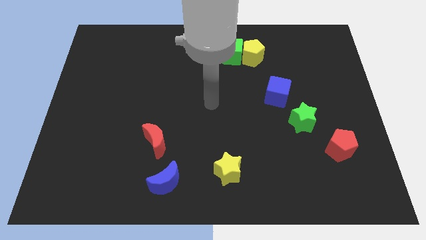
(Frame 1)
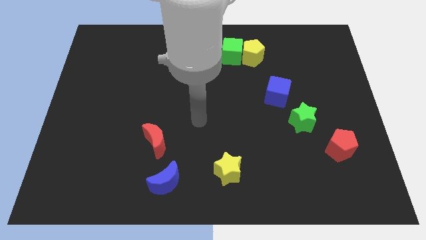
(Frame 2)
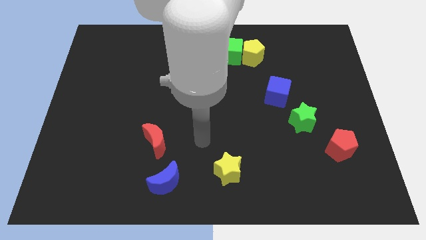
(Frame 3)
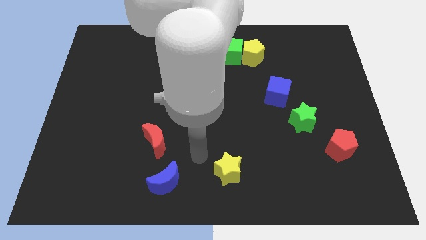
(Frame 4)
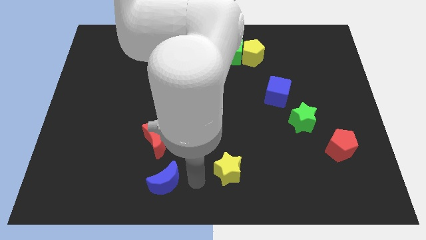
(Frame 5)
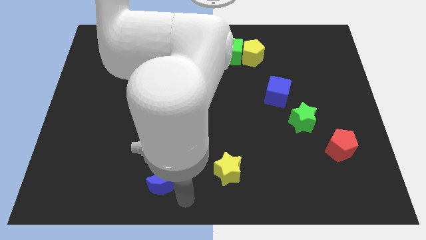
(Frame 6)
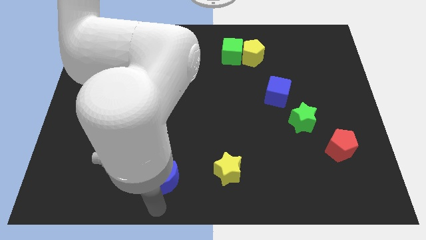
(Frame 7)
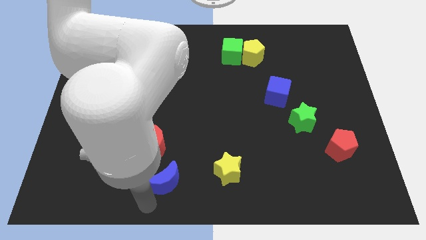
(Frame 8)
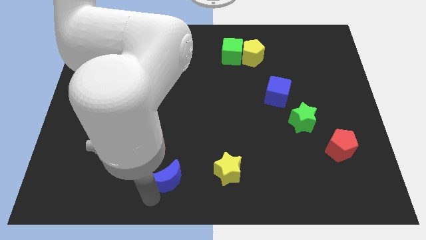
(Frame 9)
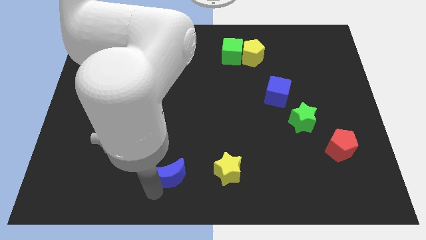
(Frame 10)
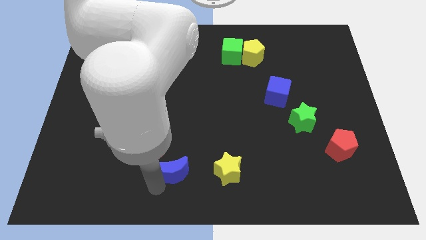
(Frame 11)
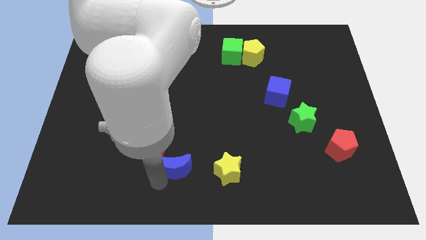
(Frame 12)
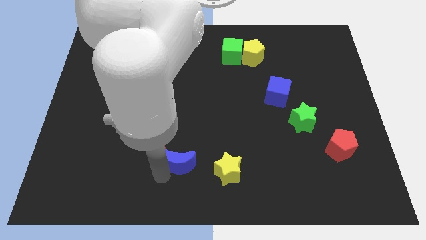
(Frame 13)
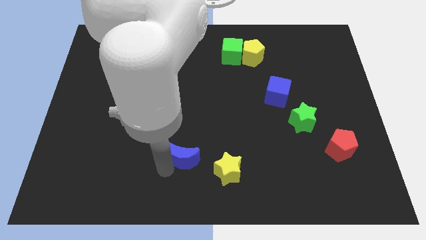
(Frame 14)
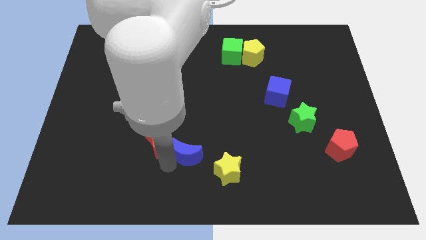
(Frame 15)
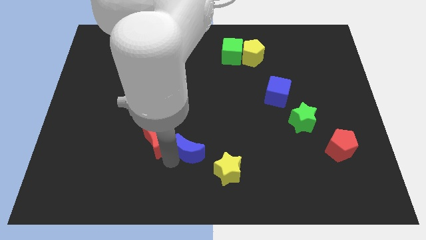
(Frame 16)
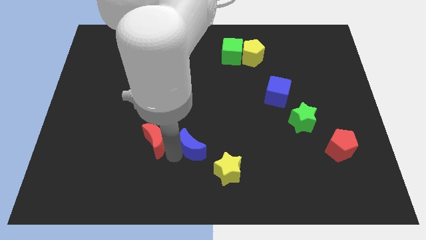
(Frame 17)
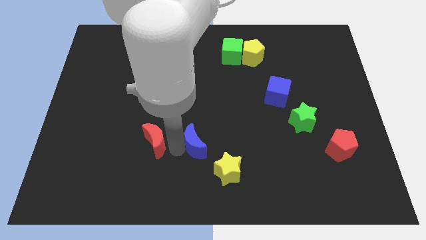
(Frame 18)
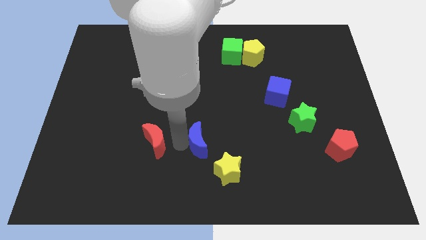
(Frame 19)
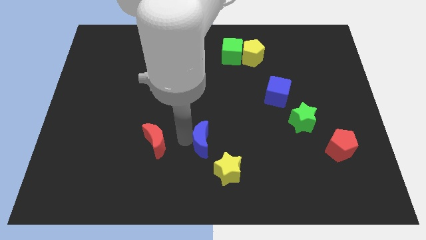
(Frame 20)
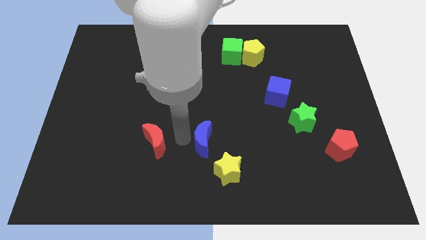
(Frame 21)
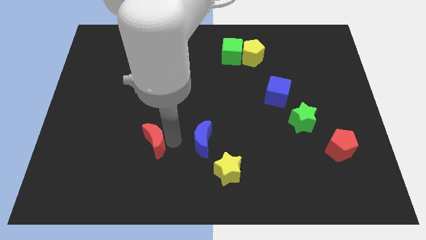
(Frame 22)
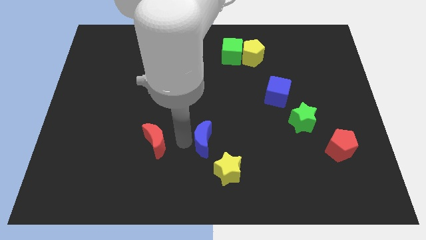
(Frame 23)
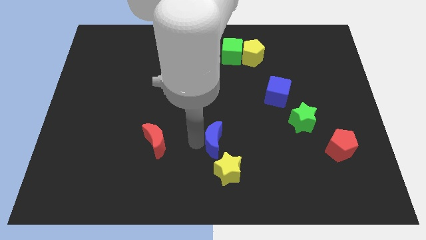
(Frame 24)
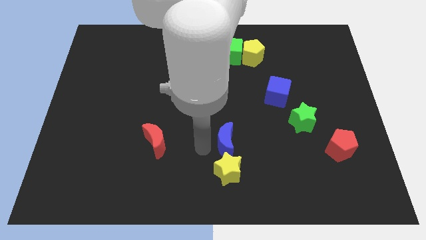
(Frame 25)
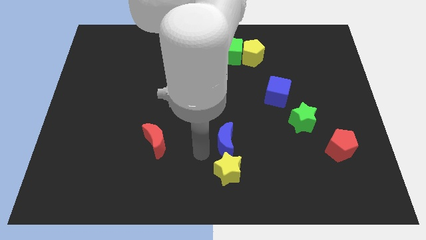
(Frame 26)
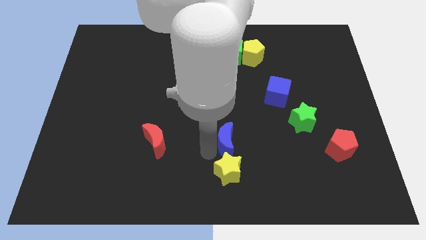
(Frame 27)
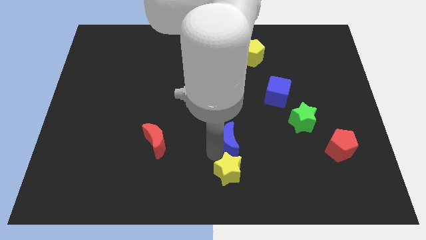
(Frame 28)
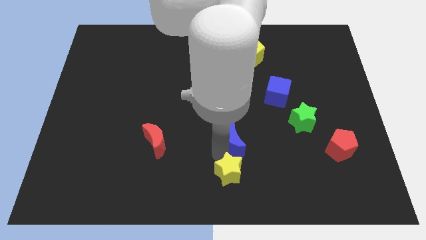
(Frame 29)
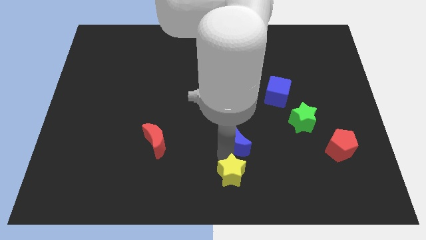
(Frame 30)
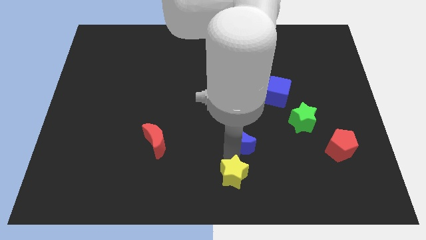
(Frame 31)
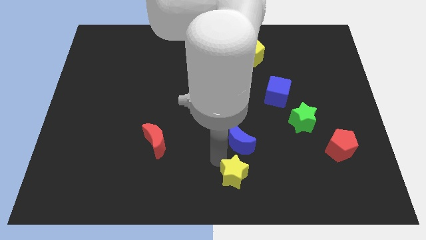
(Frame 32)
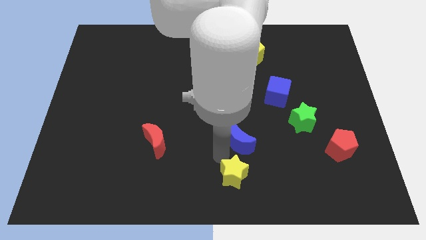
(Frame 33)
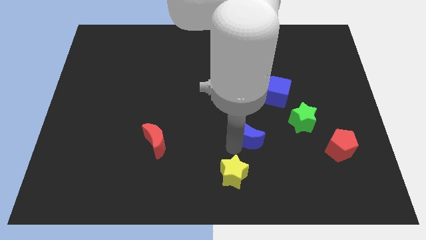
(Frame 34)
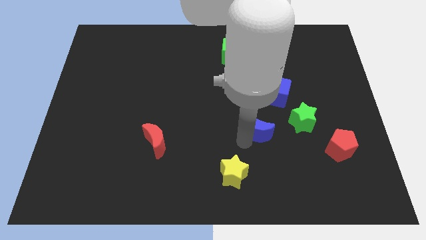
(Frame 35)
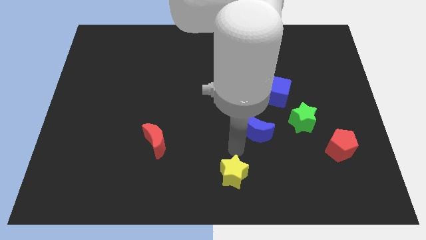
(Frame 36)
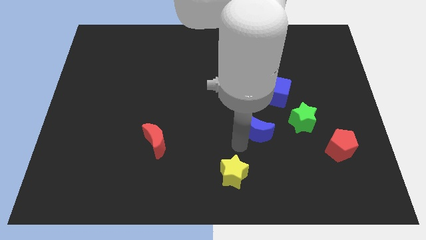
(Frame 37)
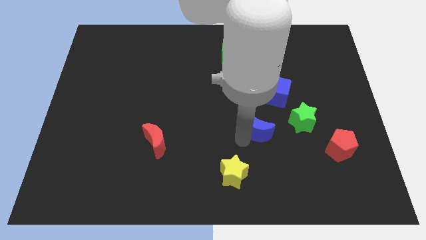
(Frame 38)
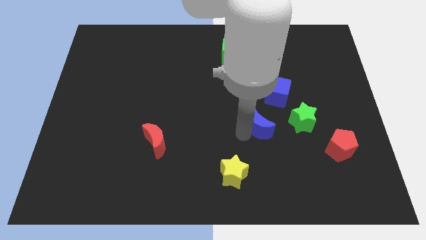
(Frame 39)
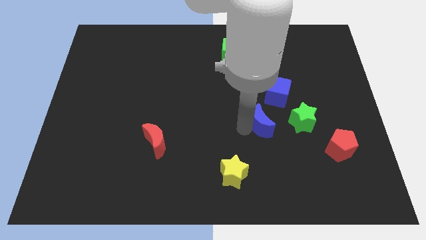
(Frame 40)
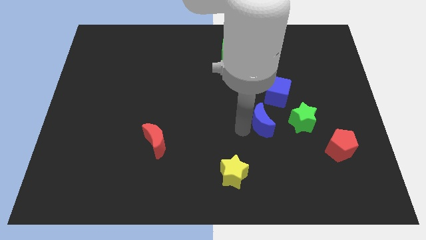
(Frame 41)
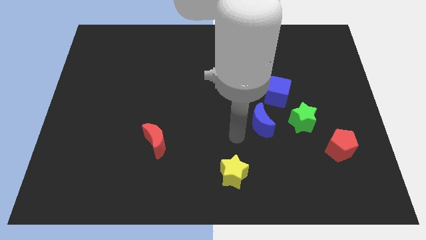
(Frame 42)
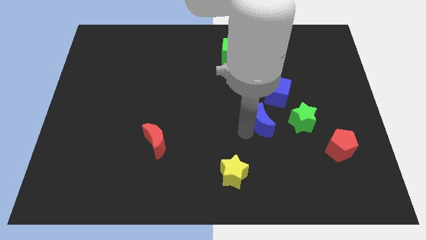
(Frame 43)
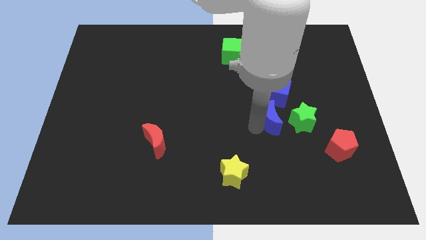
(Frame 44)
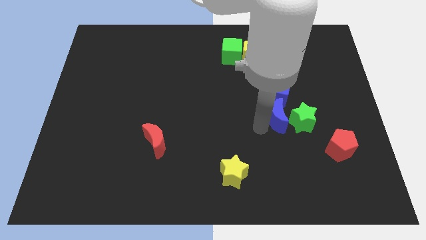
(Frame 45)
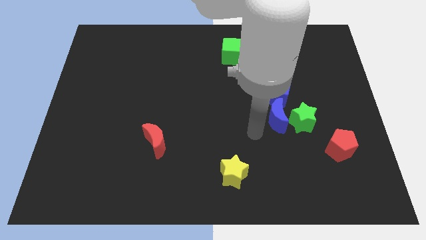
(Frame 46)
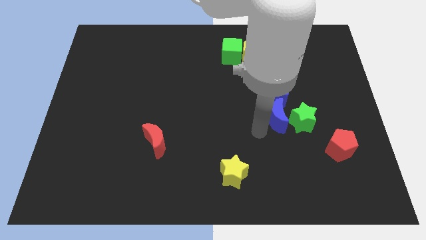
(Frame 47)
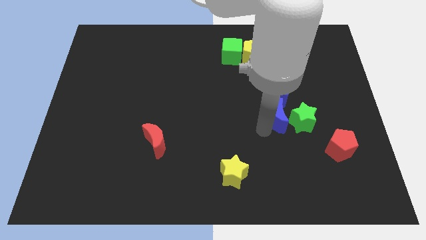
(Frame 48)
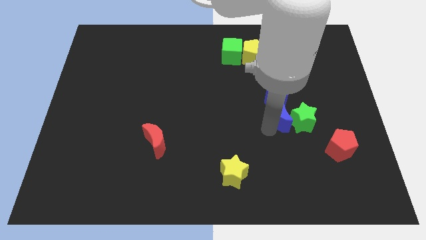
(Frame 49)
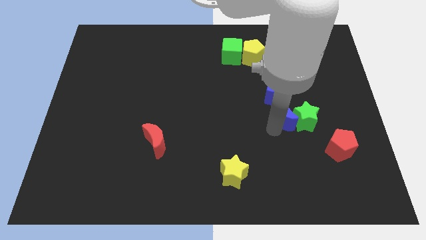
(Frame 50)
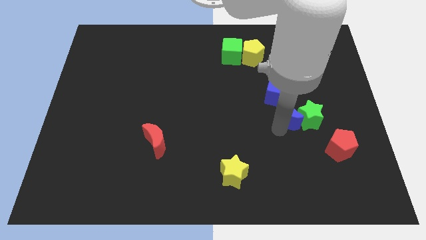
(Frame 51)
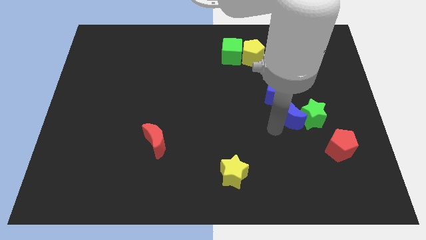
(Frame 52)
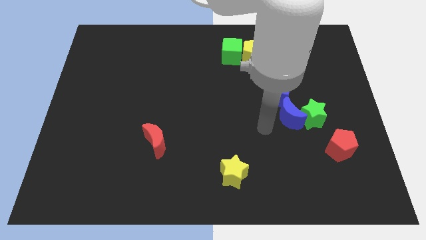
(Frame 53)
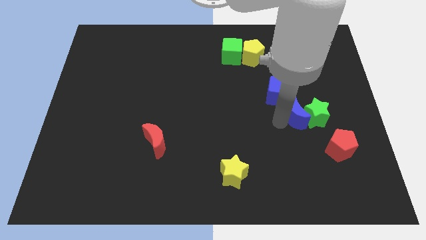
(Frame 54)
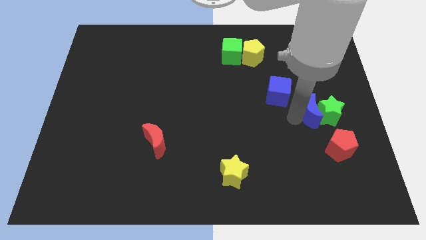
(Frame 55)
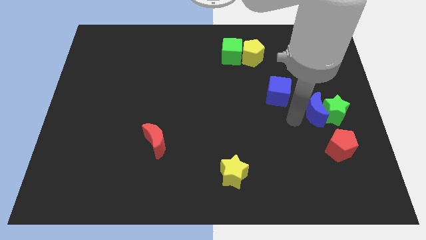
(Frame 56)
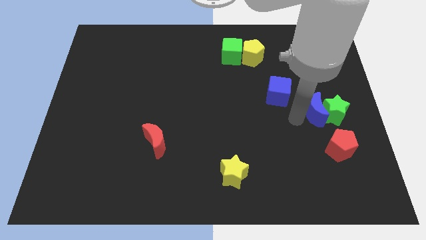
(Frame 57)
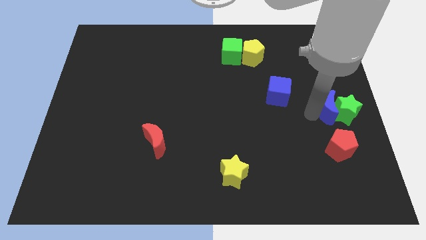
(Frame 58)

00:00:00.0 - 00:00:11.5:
move the blue moon to the right side

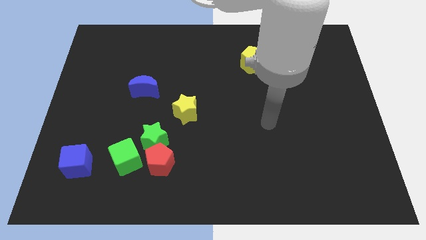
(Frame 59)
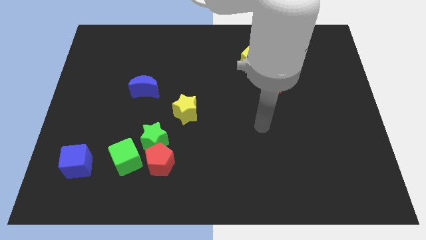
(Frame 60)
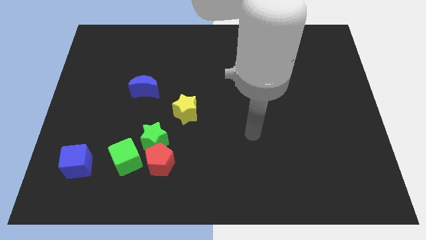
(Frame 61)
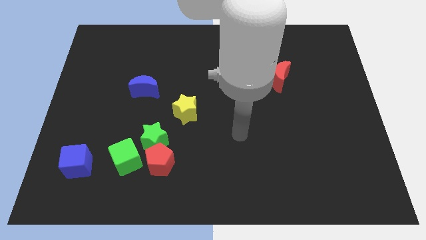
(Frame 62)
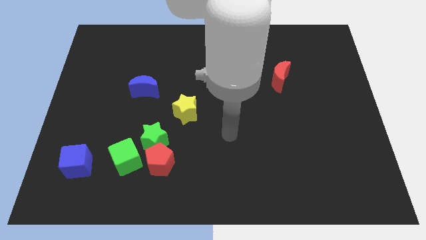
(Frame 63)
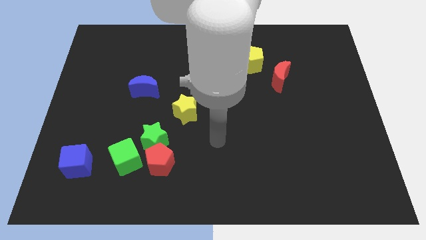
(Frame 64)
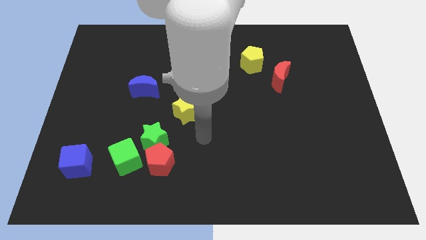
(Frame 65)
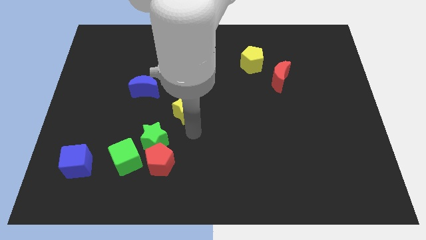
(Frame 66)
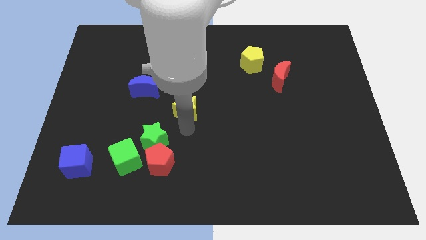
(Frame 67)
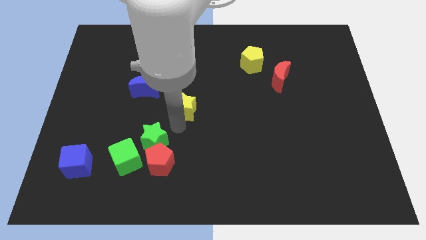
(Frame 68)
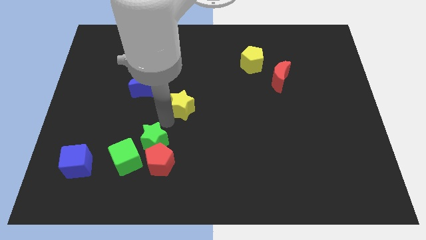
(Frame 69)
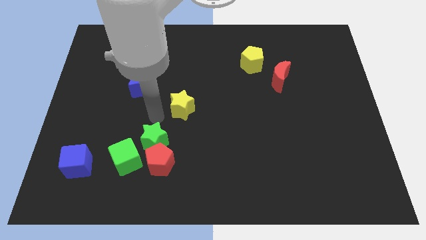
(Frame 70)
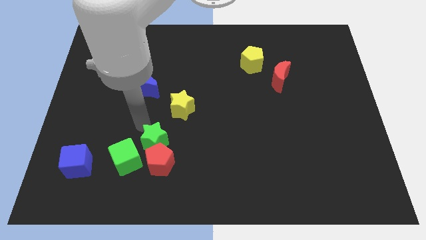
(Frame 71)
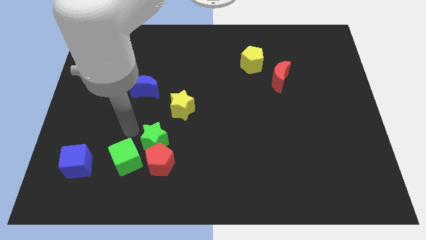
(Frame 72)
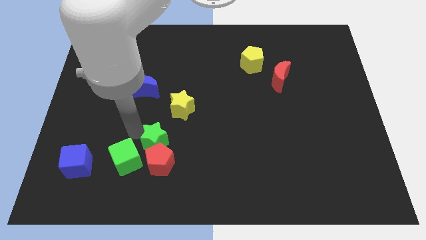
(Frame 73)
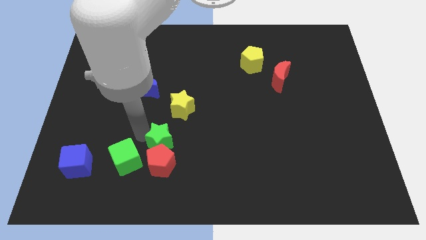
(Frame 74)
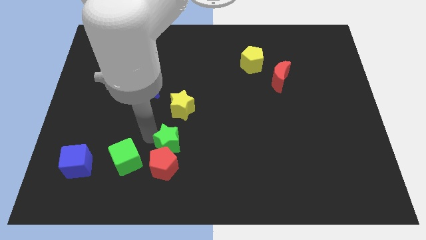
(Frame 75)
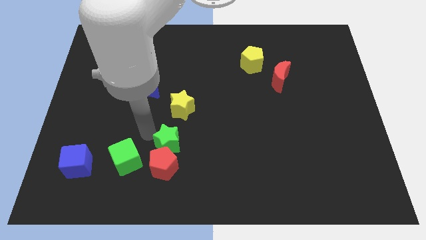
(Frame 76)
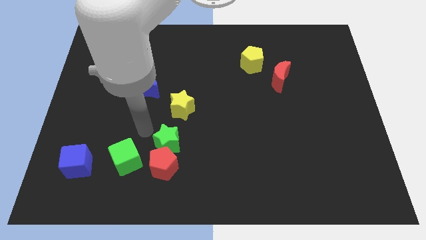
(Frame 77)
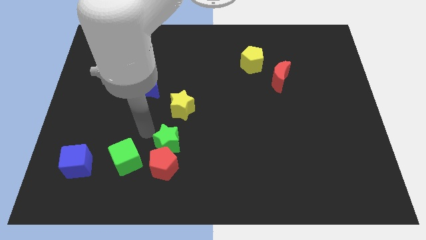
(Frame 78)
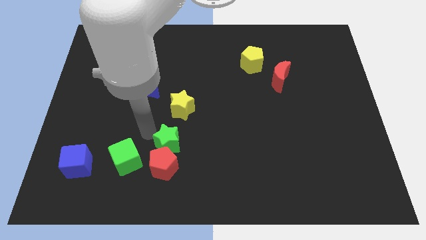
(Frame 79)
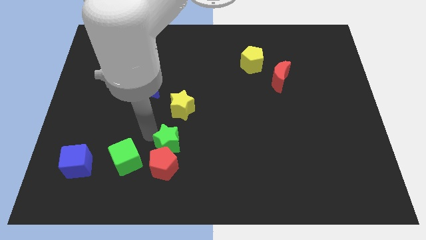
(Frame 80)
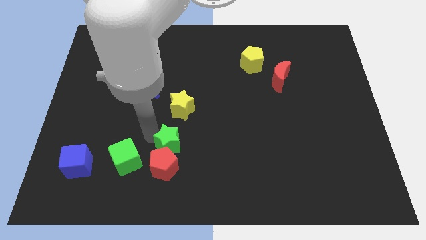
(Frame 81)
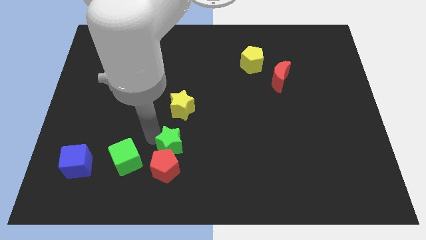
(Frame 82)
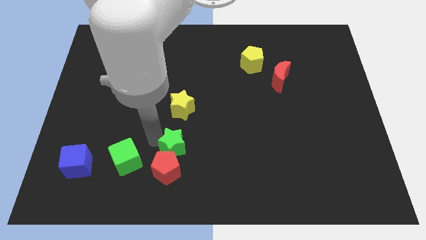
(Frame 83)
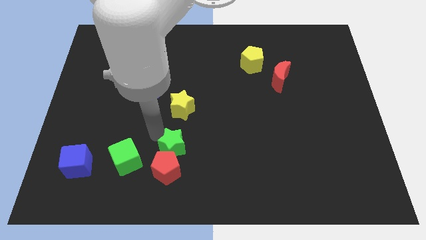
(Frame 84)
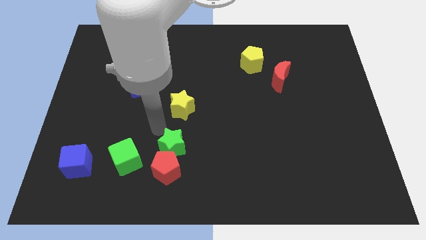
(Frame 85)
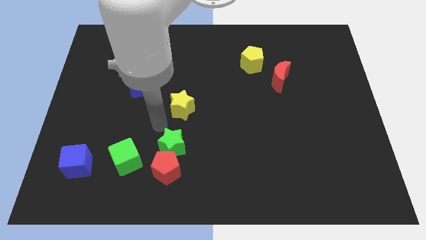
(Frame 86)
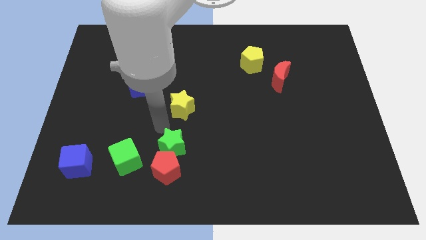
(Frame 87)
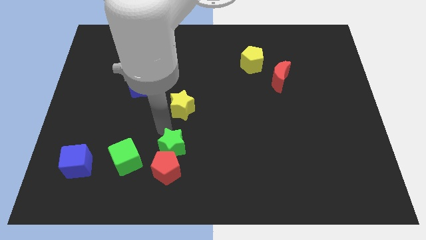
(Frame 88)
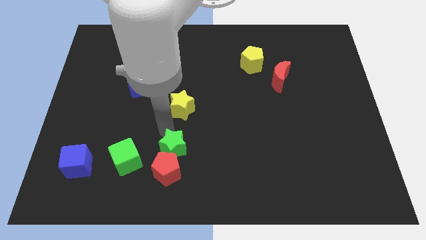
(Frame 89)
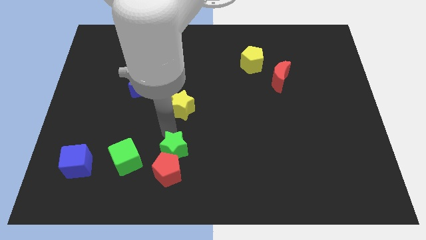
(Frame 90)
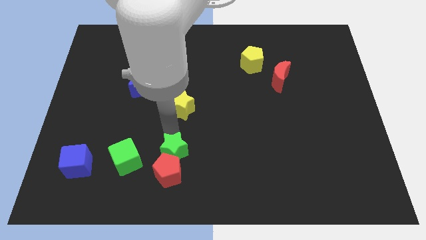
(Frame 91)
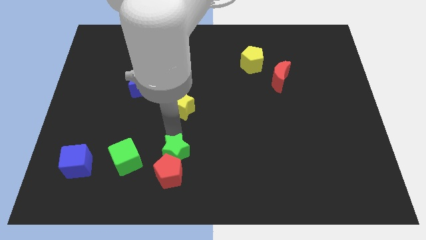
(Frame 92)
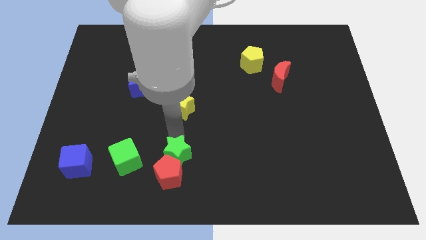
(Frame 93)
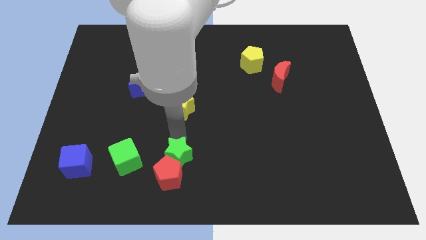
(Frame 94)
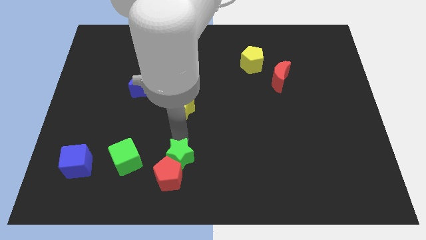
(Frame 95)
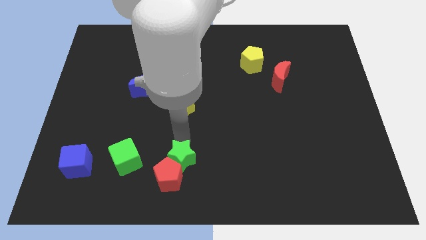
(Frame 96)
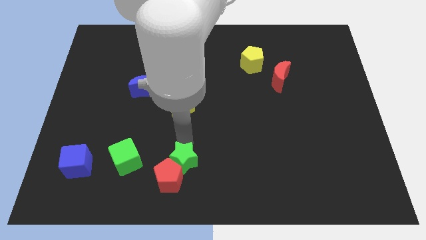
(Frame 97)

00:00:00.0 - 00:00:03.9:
move the green star to the bottom side
